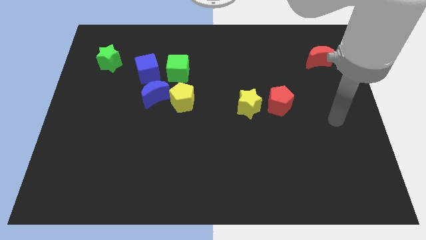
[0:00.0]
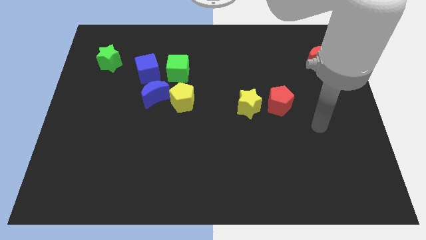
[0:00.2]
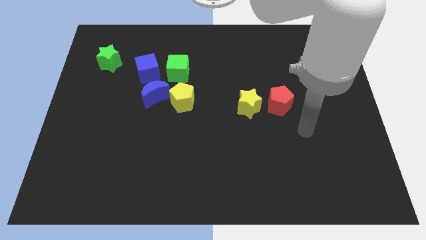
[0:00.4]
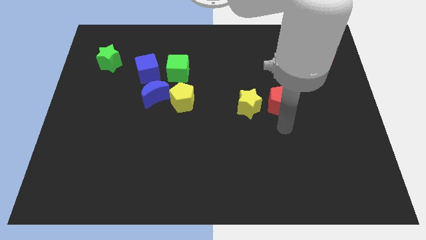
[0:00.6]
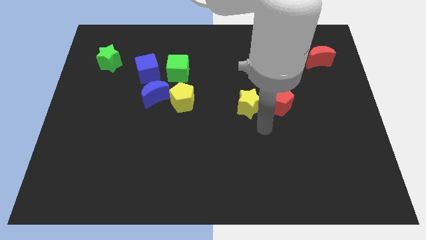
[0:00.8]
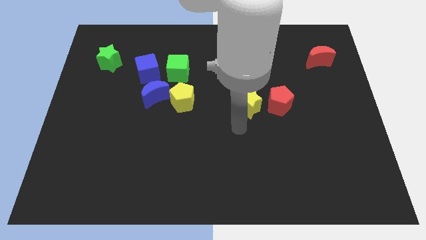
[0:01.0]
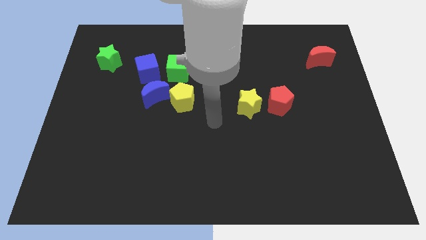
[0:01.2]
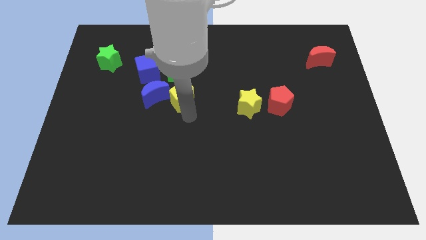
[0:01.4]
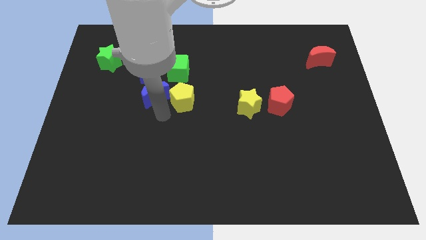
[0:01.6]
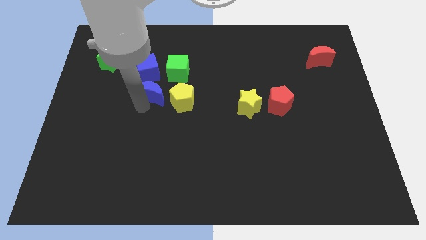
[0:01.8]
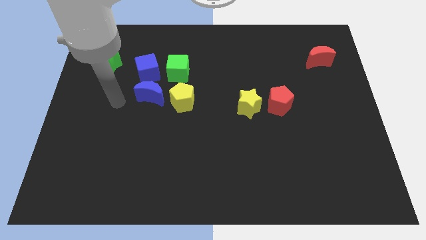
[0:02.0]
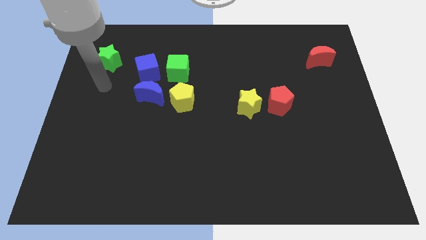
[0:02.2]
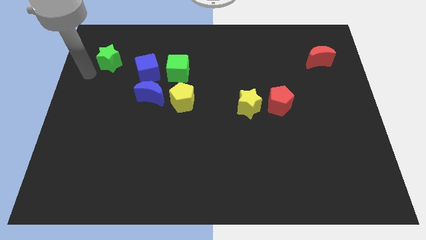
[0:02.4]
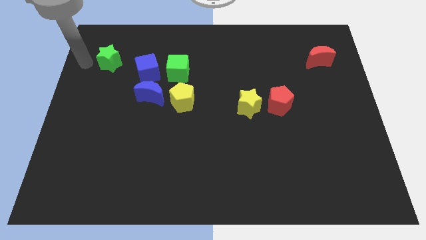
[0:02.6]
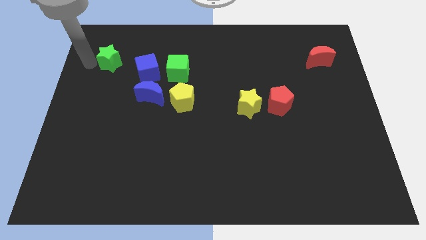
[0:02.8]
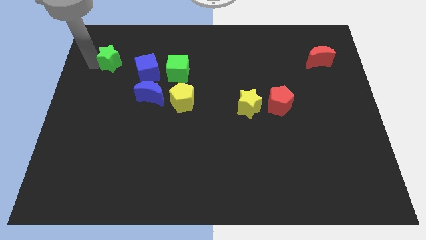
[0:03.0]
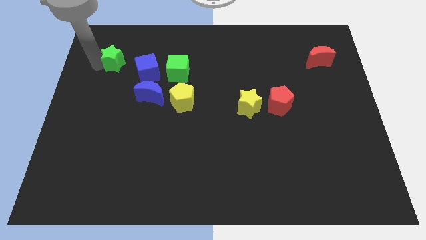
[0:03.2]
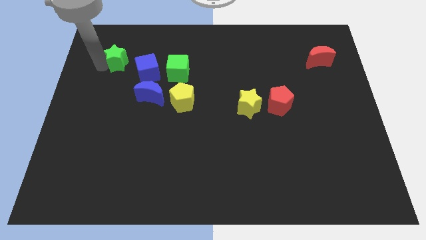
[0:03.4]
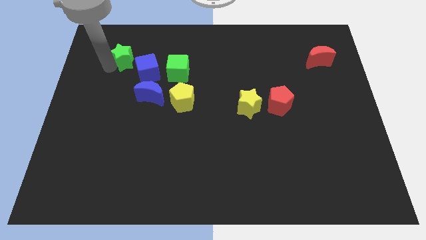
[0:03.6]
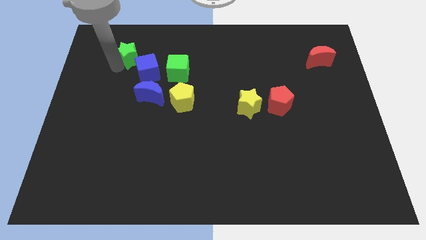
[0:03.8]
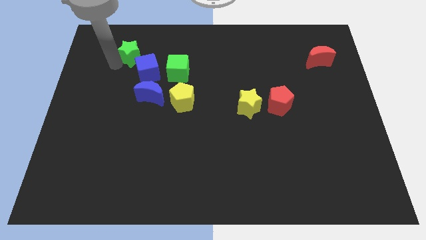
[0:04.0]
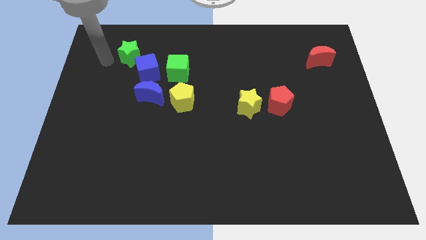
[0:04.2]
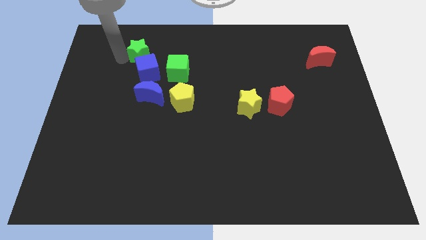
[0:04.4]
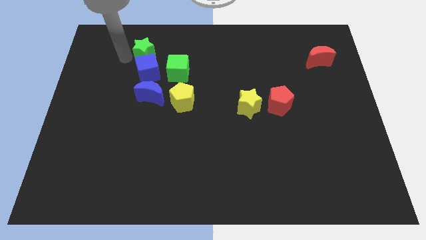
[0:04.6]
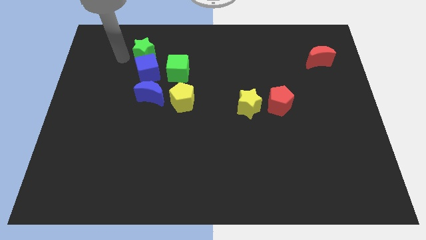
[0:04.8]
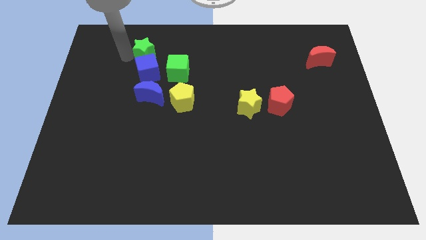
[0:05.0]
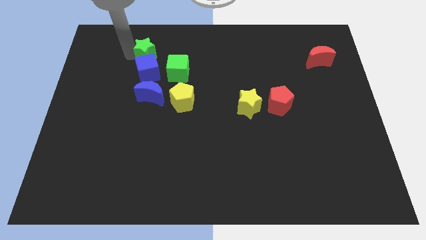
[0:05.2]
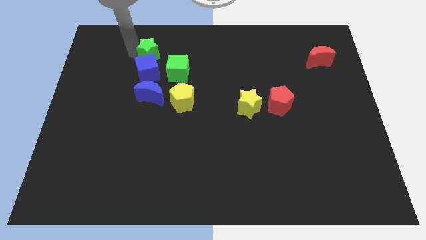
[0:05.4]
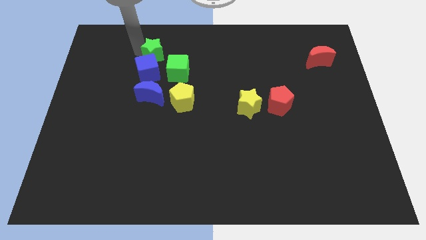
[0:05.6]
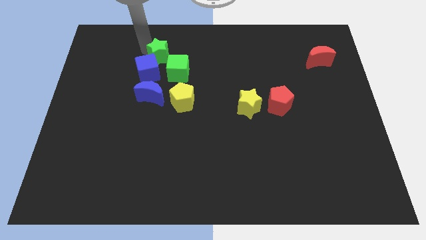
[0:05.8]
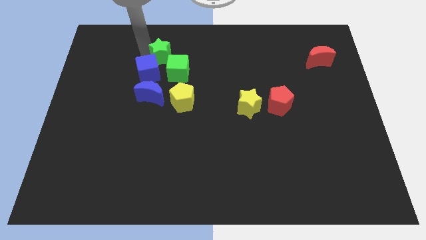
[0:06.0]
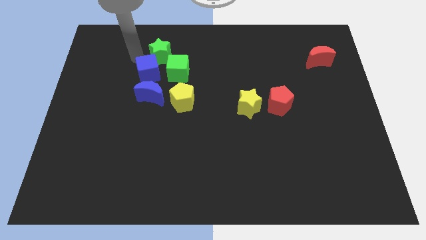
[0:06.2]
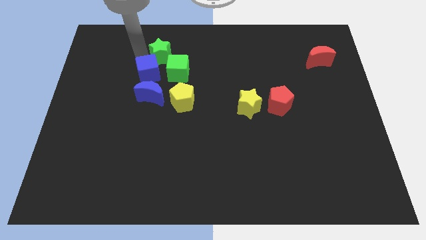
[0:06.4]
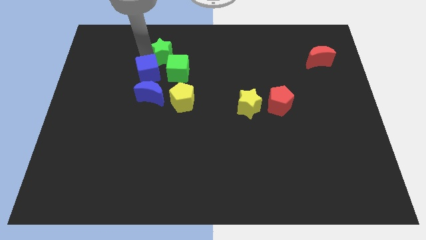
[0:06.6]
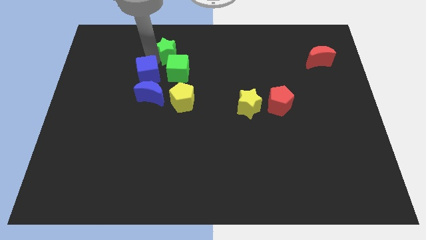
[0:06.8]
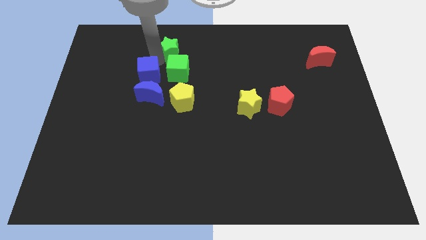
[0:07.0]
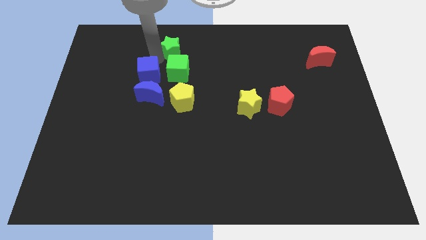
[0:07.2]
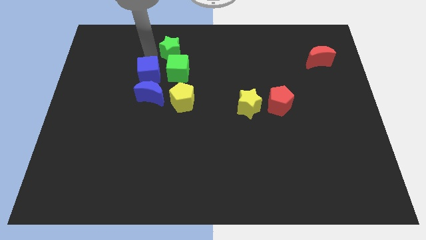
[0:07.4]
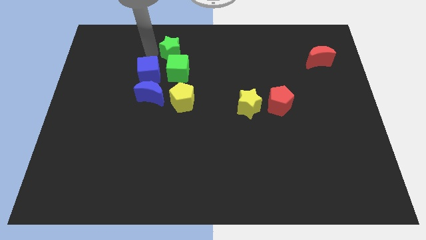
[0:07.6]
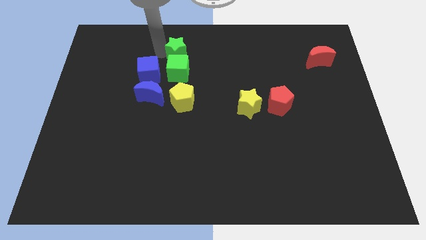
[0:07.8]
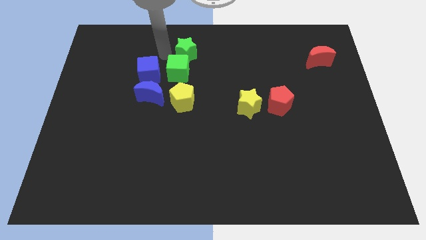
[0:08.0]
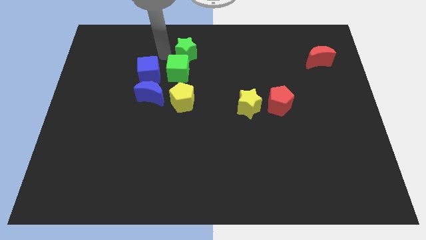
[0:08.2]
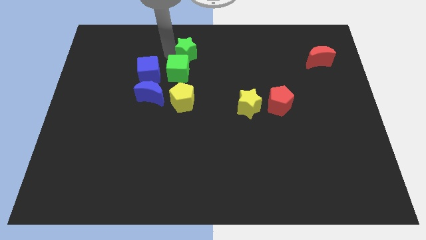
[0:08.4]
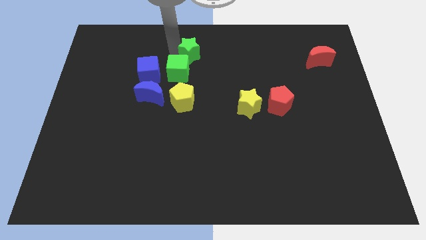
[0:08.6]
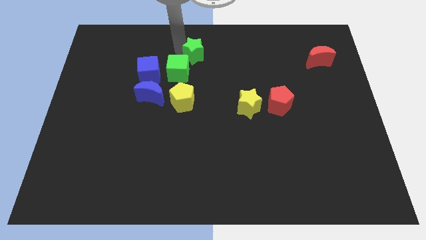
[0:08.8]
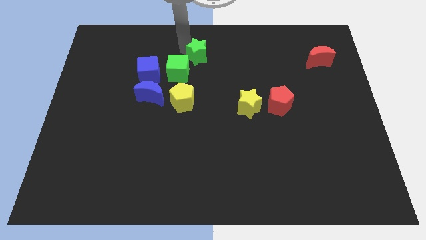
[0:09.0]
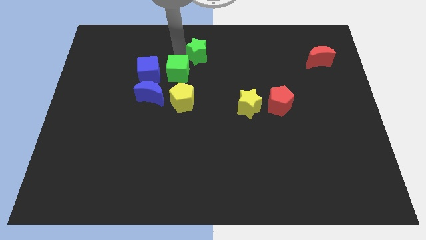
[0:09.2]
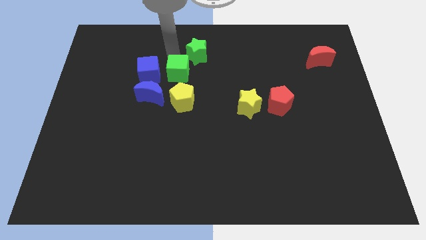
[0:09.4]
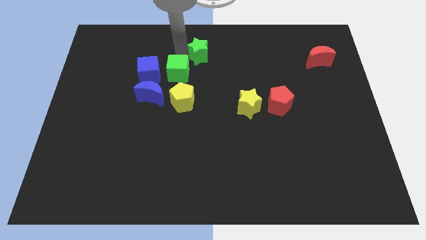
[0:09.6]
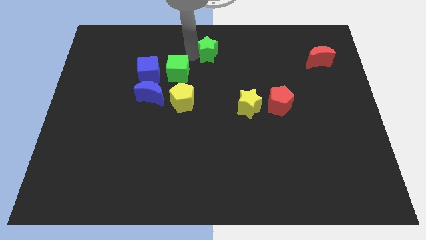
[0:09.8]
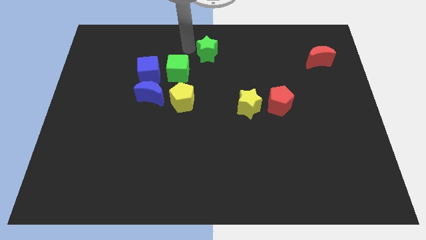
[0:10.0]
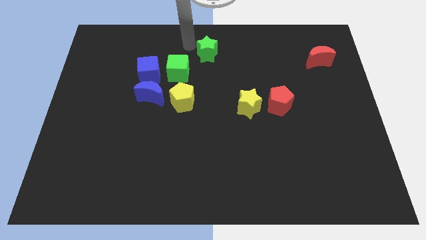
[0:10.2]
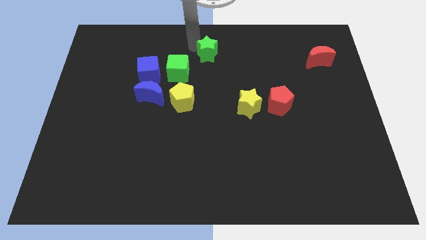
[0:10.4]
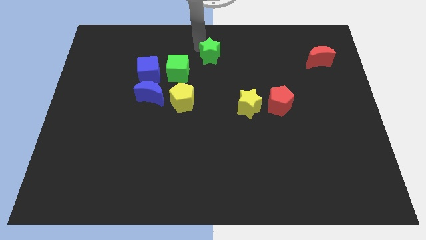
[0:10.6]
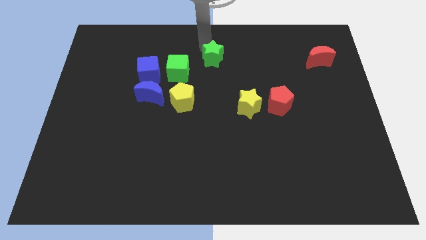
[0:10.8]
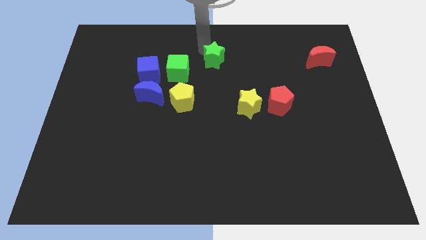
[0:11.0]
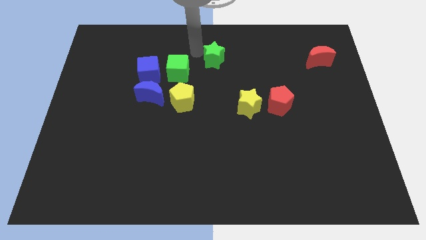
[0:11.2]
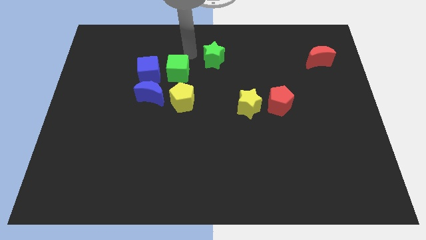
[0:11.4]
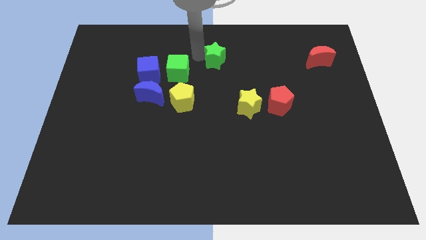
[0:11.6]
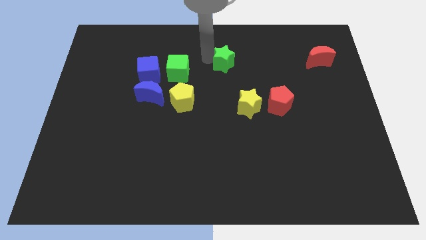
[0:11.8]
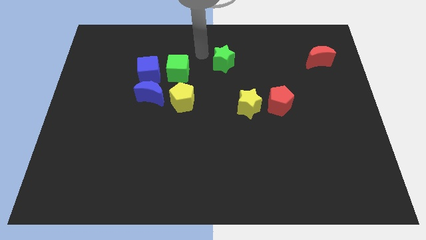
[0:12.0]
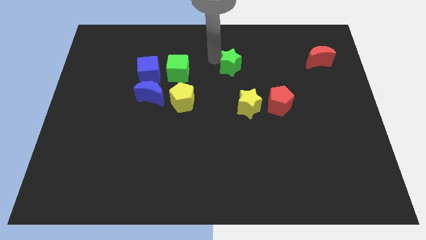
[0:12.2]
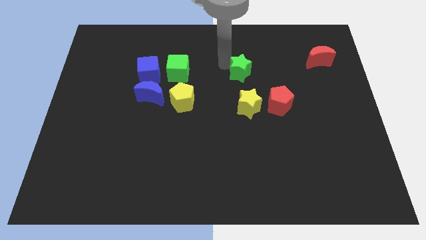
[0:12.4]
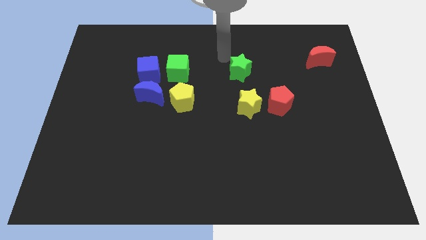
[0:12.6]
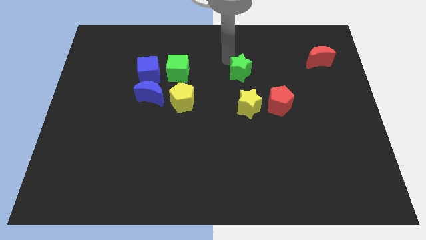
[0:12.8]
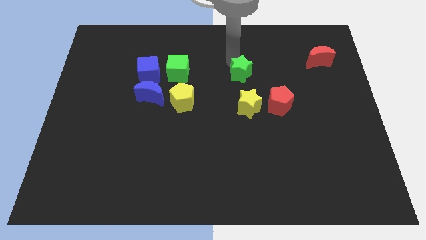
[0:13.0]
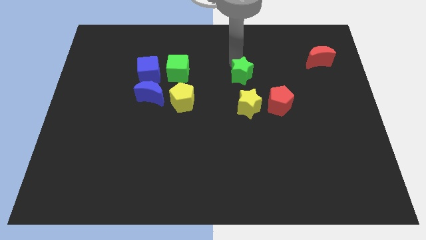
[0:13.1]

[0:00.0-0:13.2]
put the green star to the top left of the red pentagon

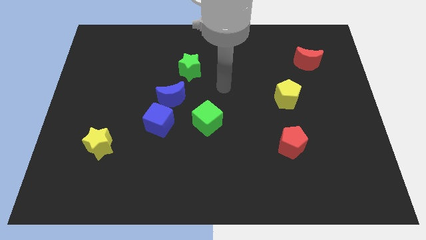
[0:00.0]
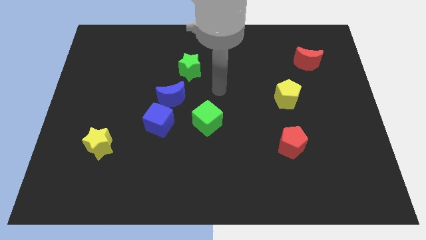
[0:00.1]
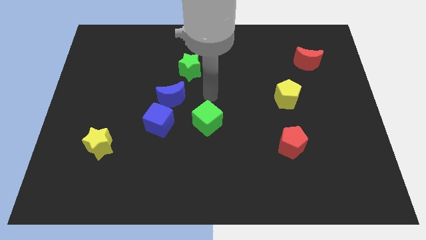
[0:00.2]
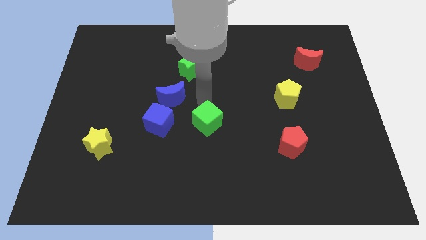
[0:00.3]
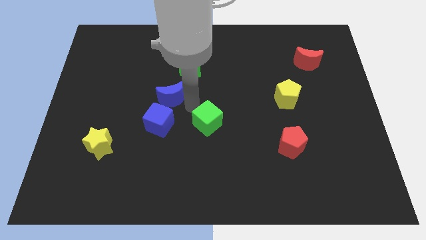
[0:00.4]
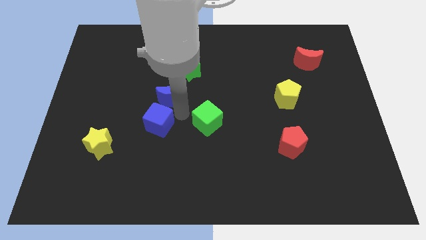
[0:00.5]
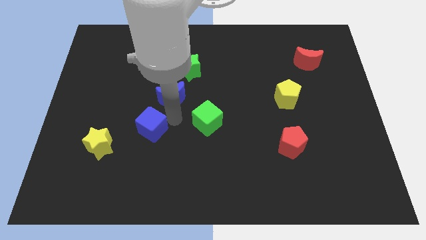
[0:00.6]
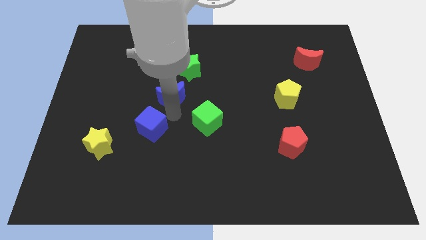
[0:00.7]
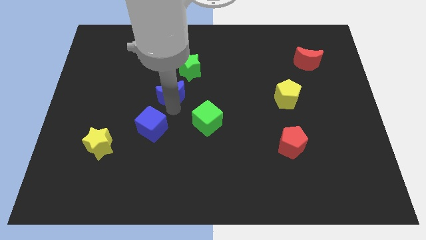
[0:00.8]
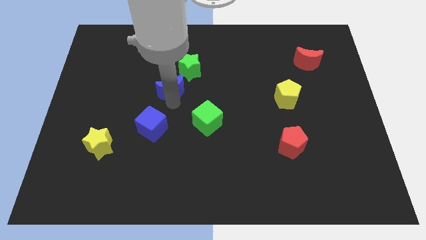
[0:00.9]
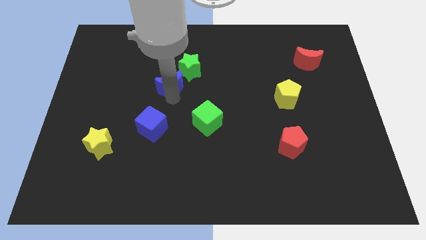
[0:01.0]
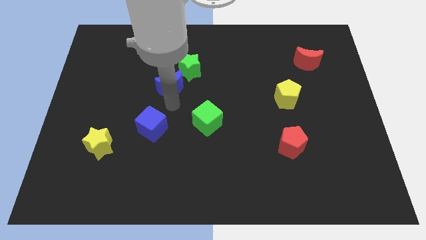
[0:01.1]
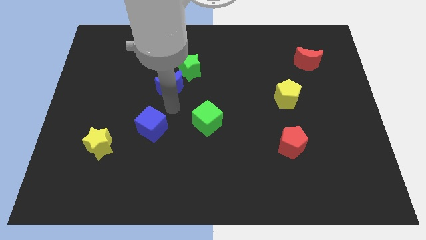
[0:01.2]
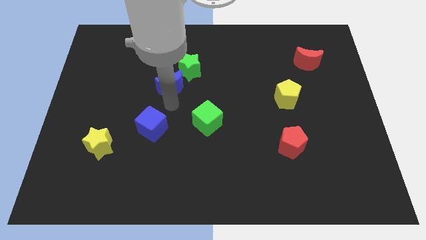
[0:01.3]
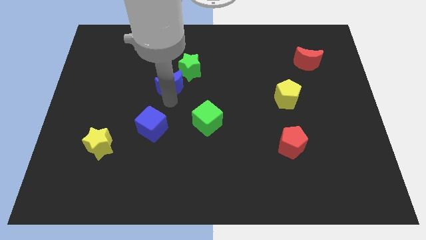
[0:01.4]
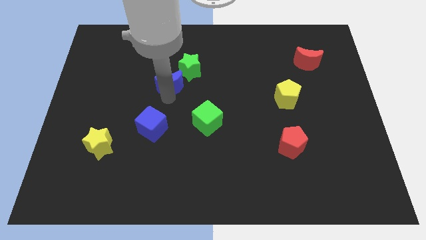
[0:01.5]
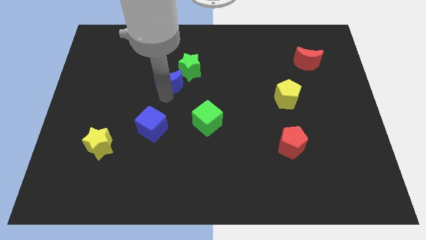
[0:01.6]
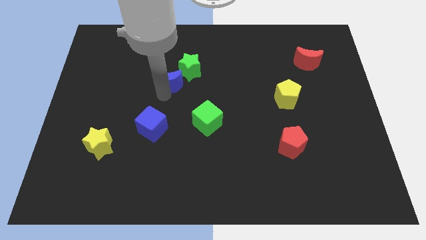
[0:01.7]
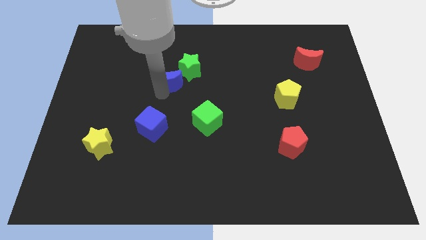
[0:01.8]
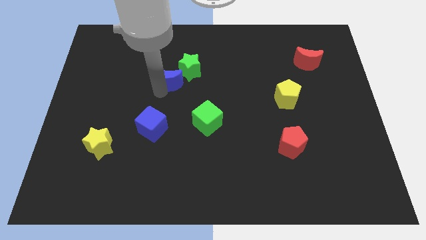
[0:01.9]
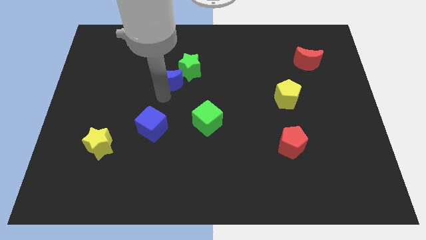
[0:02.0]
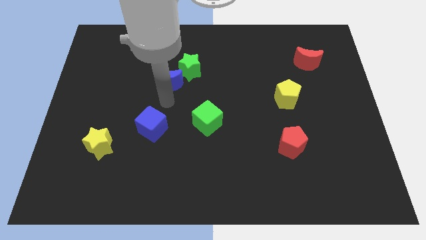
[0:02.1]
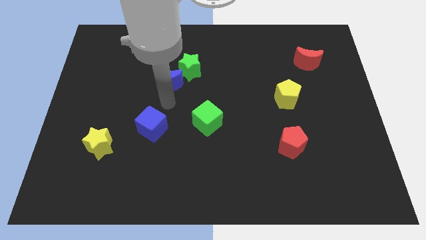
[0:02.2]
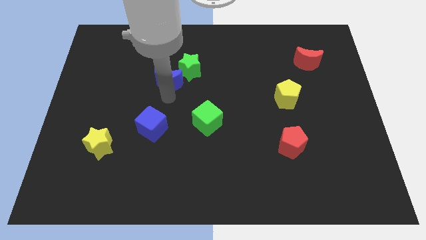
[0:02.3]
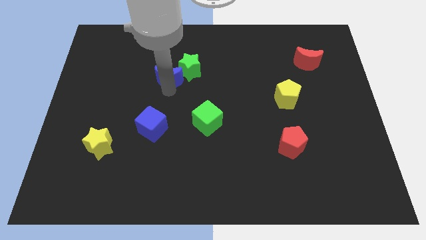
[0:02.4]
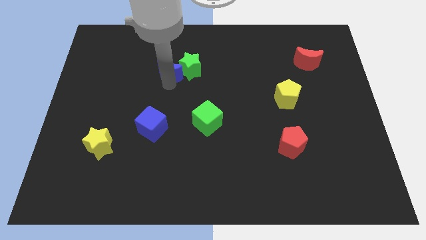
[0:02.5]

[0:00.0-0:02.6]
move the blue moon diagonally up and to the left of the green star
